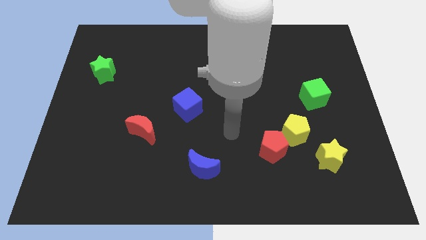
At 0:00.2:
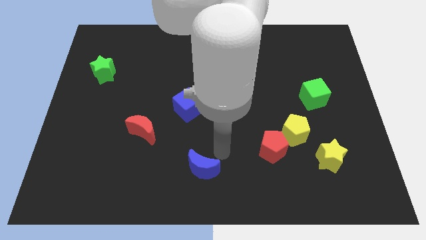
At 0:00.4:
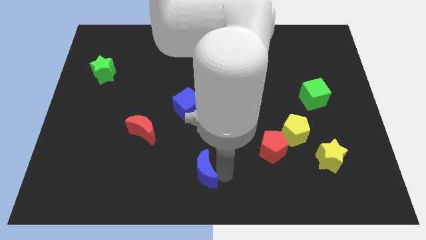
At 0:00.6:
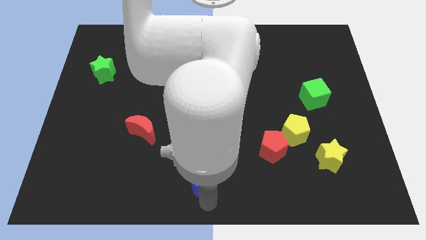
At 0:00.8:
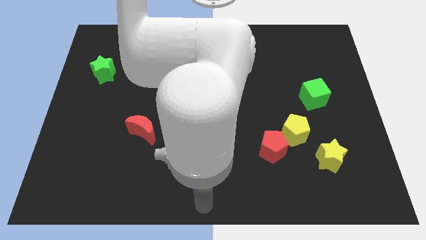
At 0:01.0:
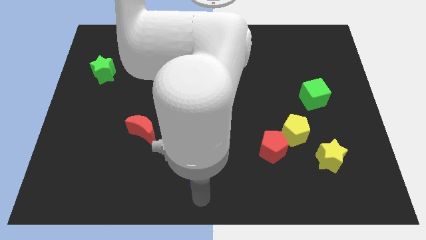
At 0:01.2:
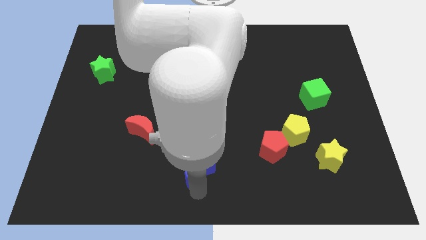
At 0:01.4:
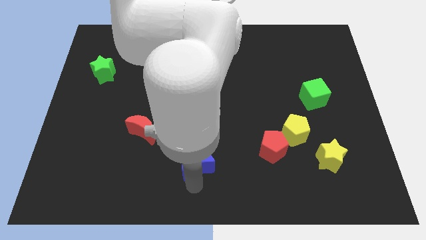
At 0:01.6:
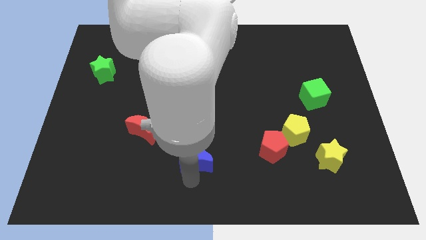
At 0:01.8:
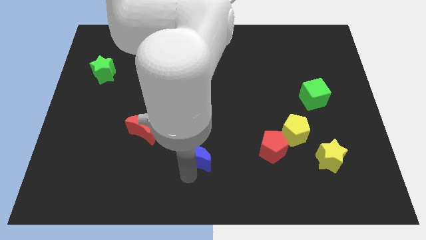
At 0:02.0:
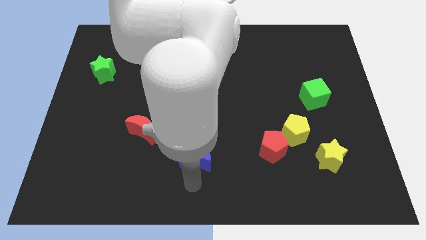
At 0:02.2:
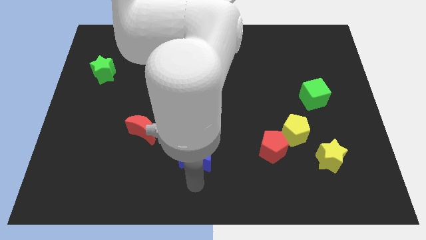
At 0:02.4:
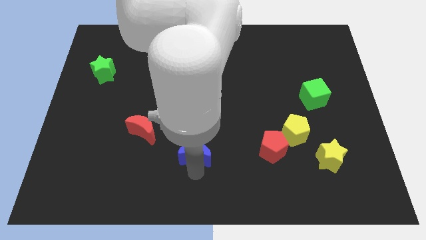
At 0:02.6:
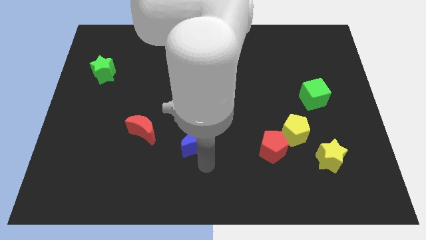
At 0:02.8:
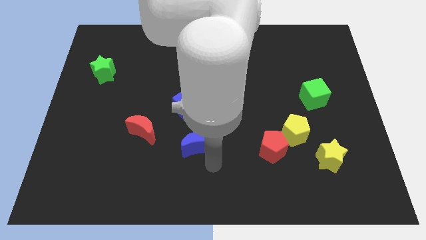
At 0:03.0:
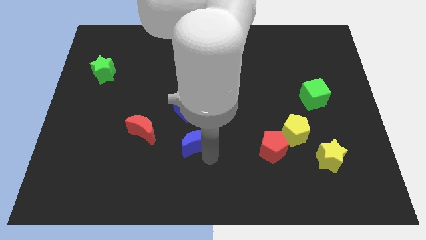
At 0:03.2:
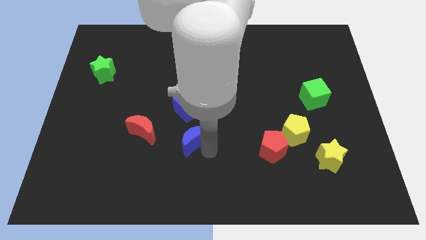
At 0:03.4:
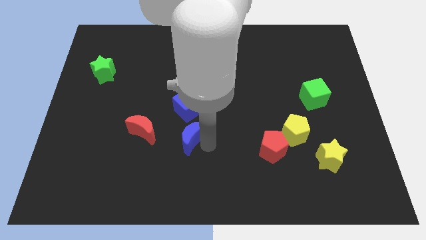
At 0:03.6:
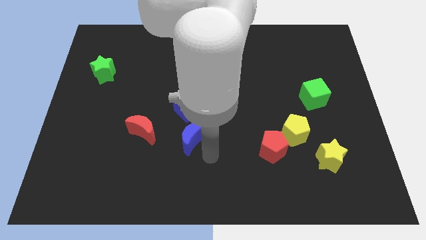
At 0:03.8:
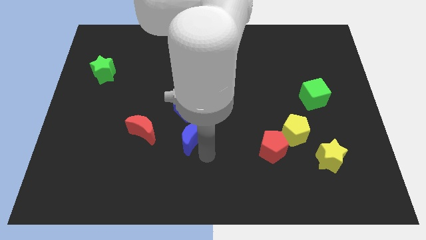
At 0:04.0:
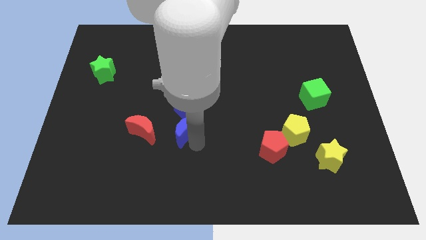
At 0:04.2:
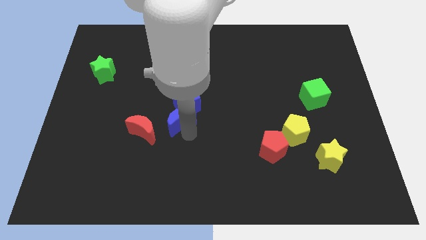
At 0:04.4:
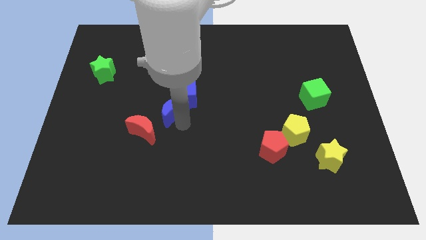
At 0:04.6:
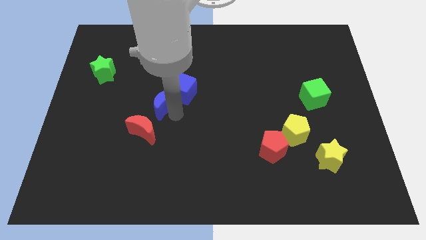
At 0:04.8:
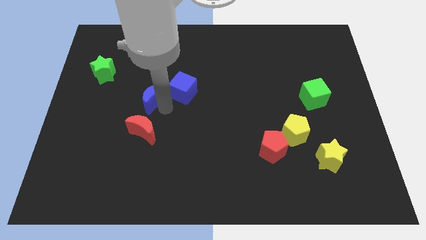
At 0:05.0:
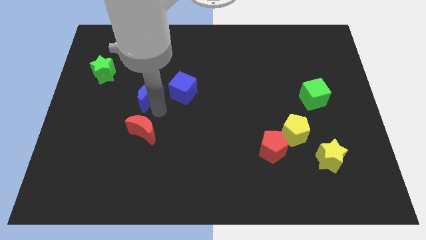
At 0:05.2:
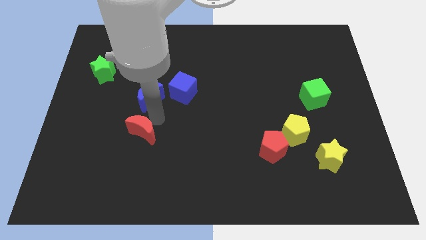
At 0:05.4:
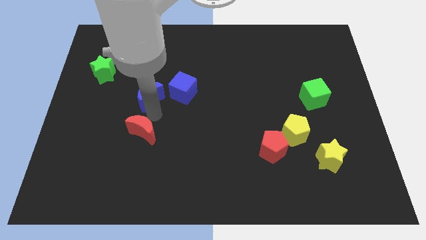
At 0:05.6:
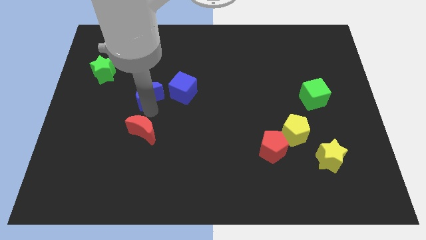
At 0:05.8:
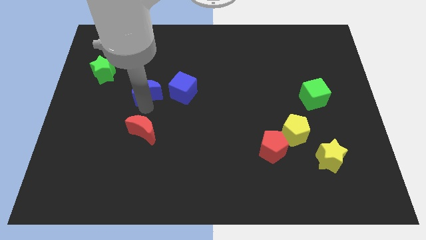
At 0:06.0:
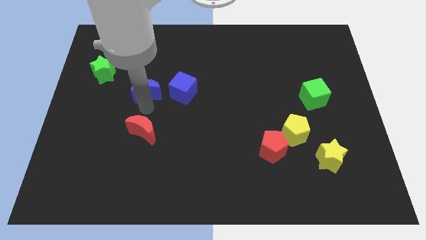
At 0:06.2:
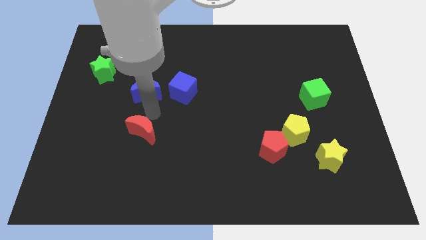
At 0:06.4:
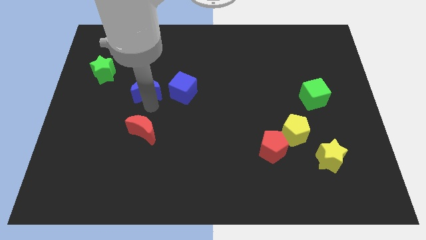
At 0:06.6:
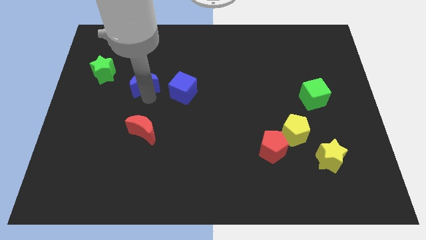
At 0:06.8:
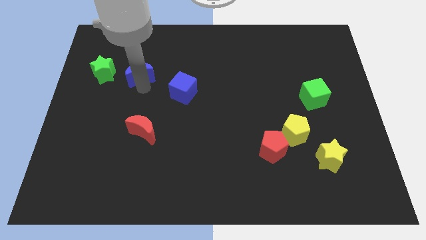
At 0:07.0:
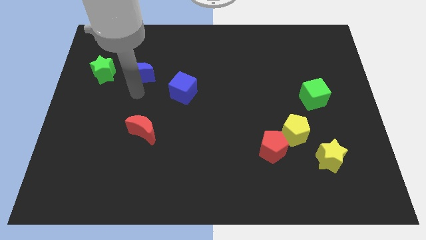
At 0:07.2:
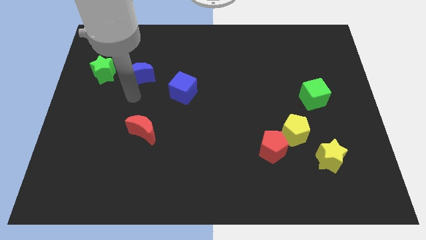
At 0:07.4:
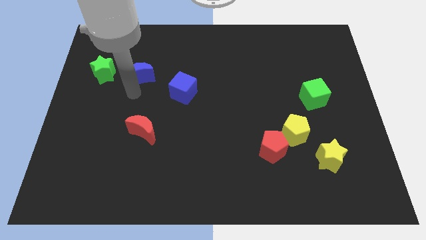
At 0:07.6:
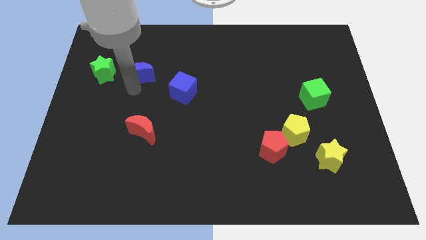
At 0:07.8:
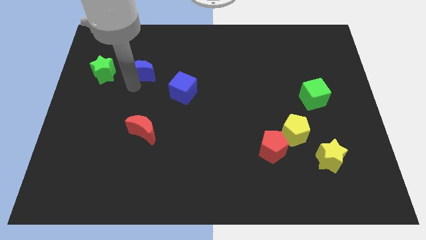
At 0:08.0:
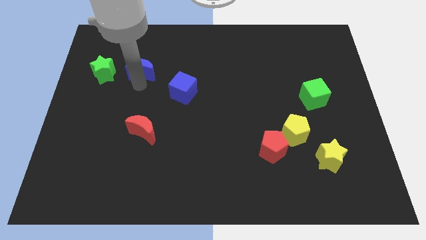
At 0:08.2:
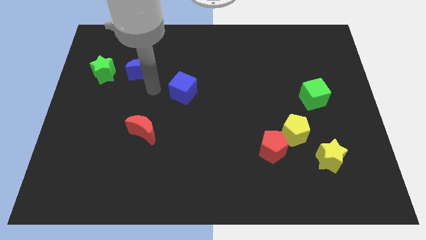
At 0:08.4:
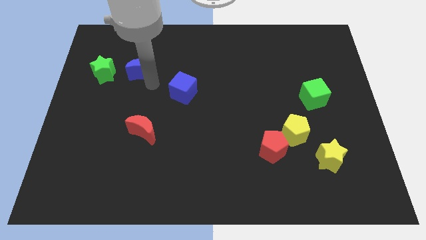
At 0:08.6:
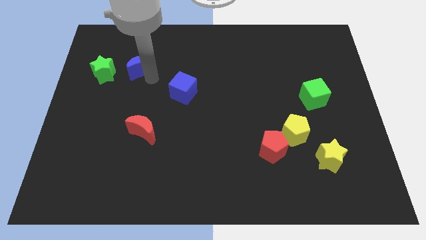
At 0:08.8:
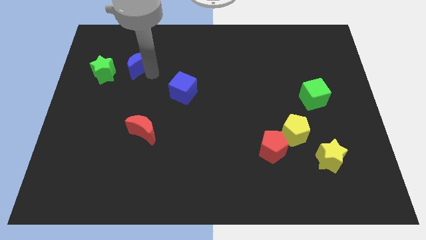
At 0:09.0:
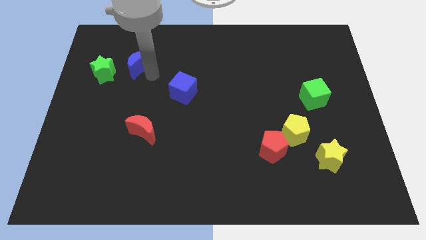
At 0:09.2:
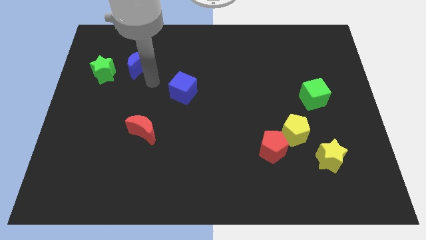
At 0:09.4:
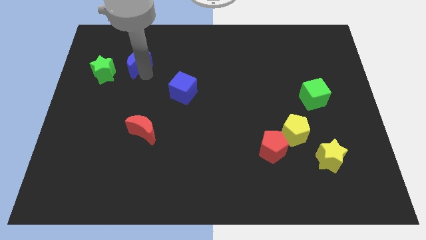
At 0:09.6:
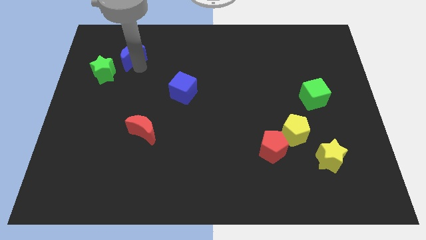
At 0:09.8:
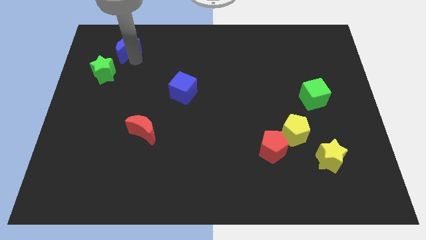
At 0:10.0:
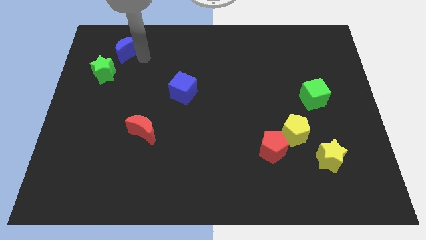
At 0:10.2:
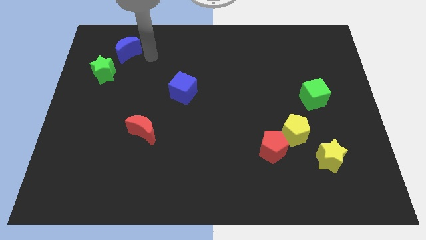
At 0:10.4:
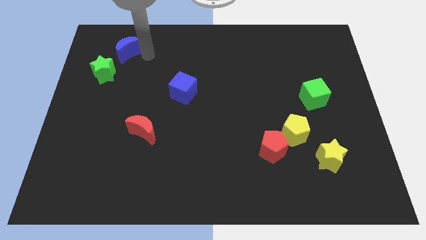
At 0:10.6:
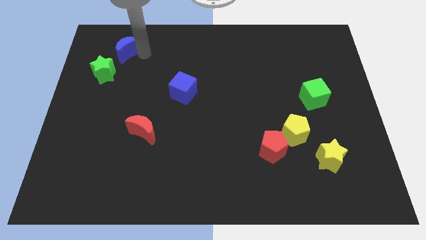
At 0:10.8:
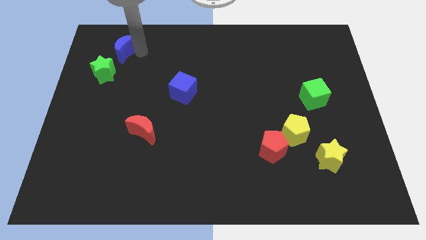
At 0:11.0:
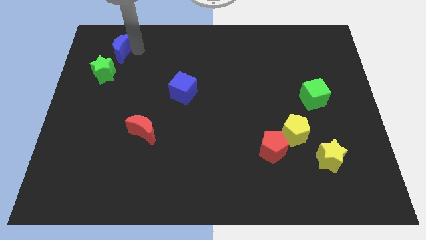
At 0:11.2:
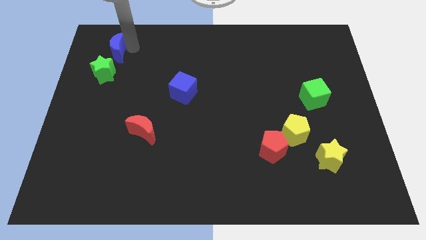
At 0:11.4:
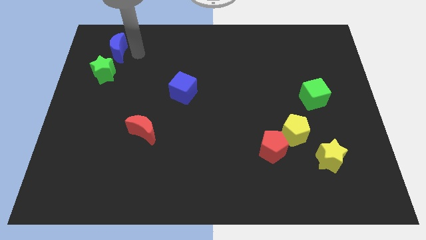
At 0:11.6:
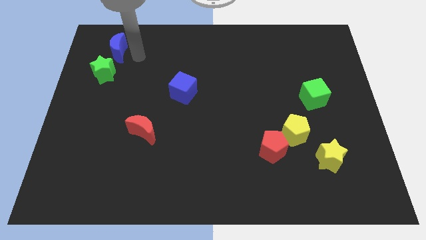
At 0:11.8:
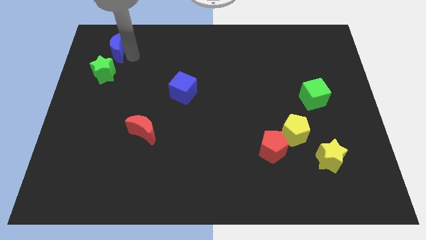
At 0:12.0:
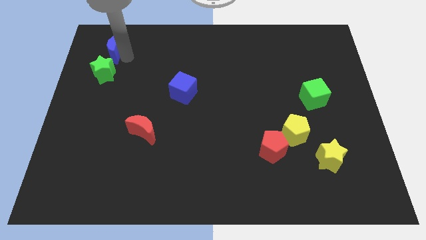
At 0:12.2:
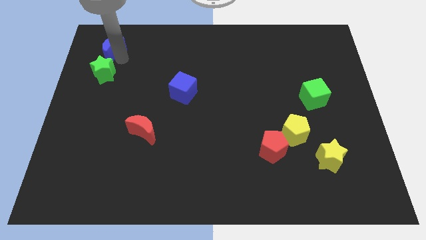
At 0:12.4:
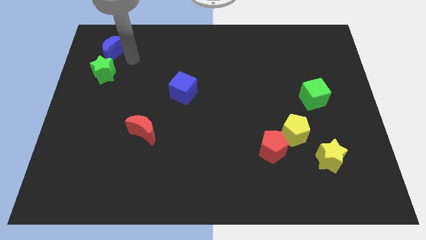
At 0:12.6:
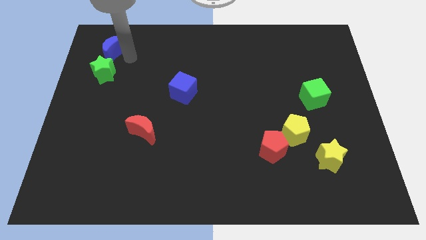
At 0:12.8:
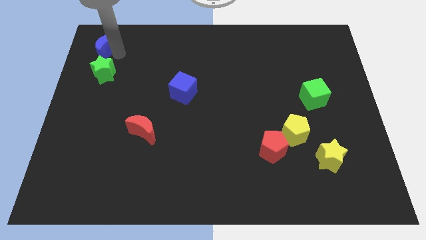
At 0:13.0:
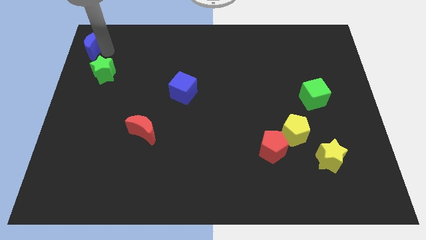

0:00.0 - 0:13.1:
move the blue moon to the top left corner

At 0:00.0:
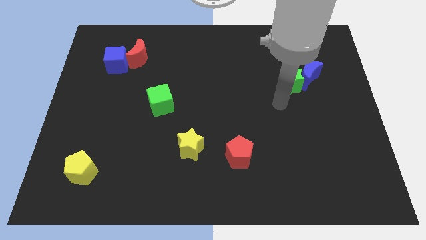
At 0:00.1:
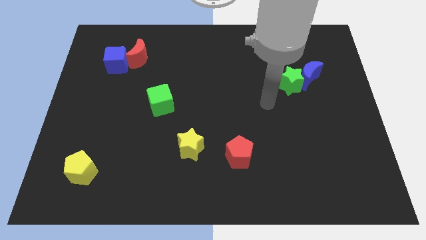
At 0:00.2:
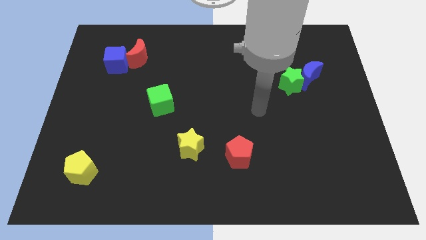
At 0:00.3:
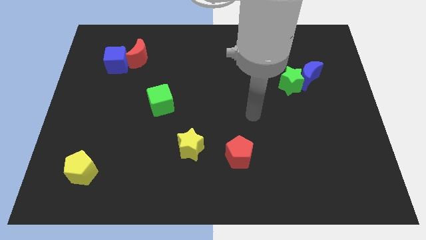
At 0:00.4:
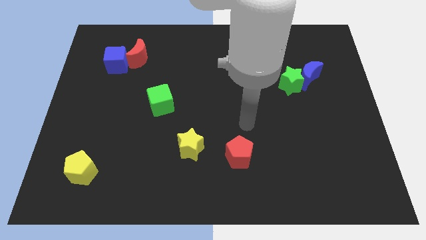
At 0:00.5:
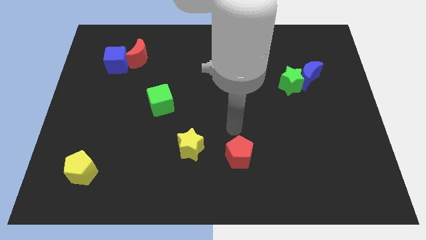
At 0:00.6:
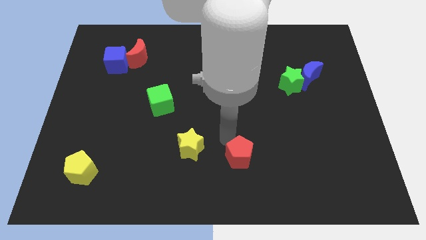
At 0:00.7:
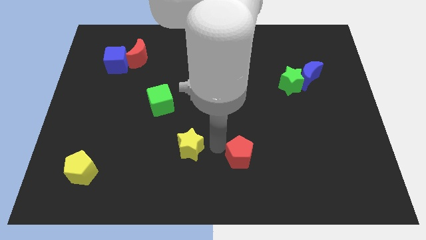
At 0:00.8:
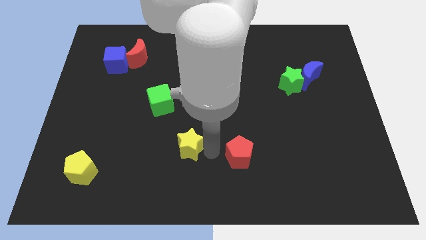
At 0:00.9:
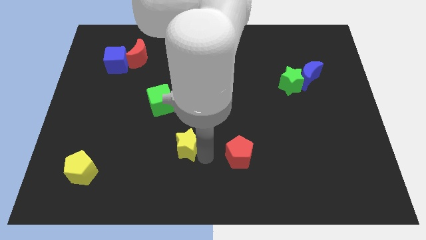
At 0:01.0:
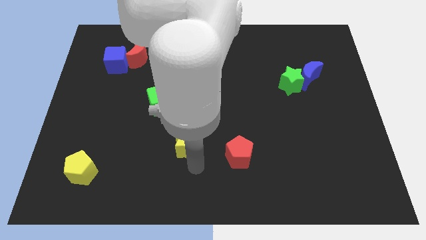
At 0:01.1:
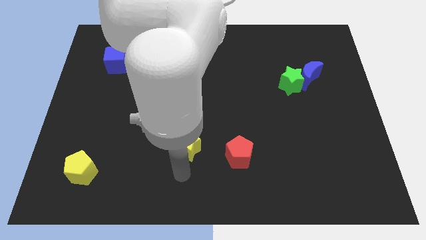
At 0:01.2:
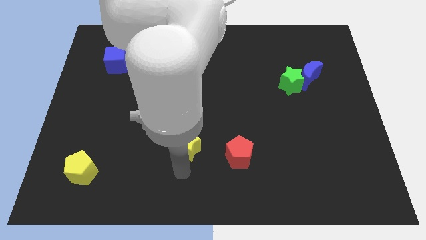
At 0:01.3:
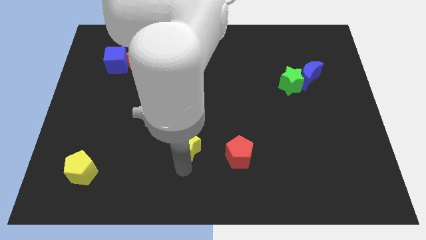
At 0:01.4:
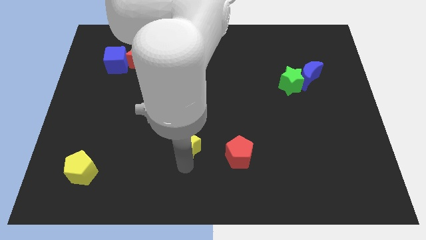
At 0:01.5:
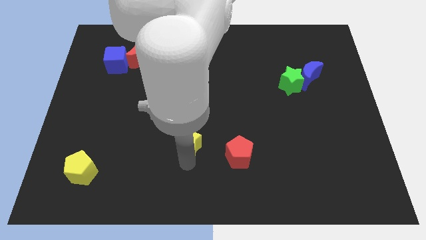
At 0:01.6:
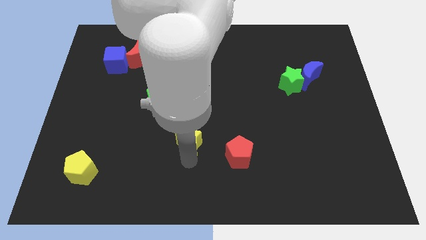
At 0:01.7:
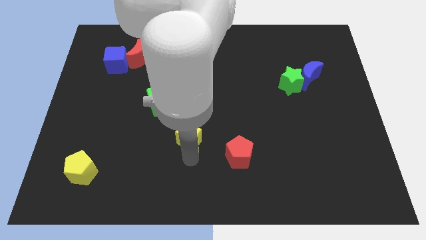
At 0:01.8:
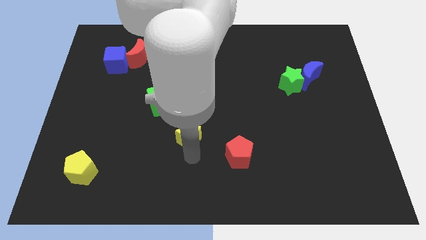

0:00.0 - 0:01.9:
slide the yellow star to the center of the board
